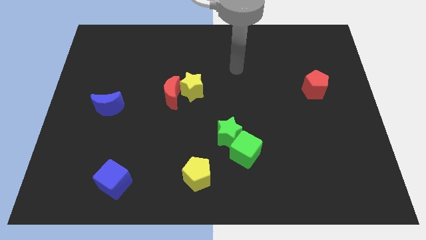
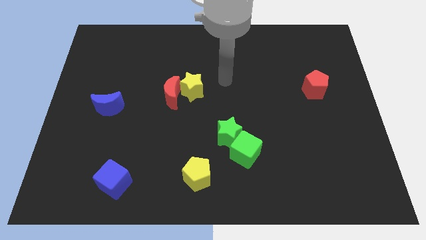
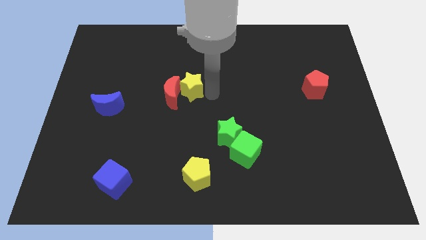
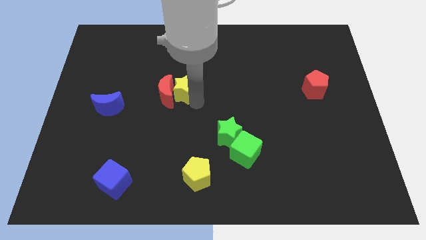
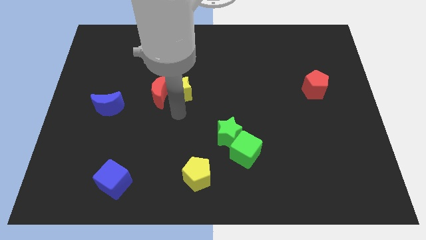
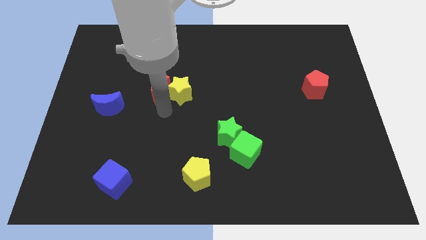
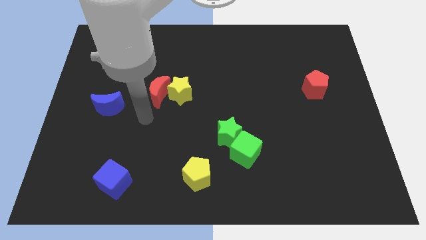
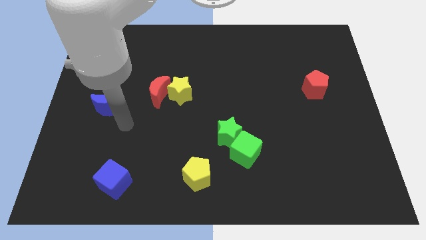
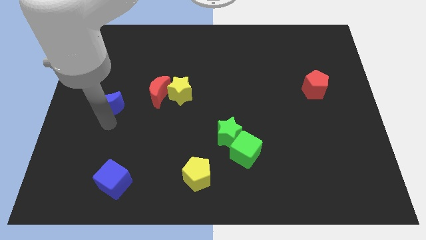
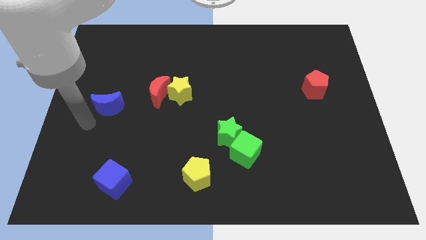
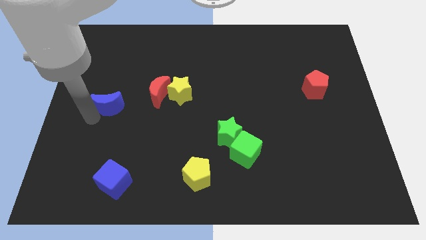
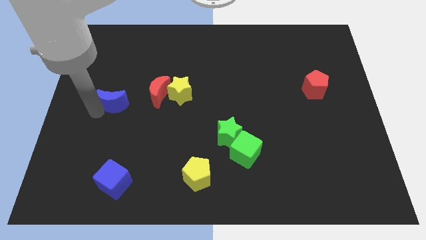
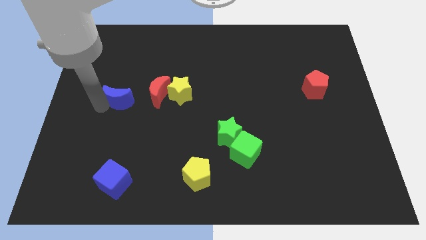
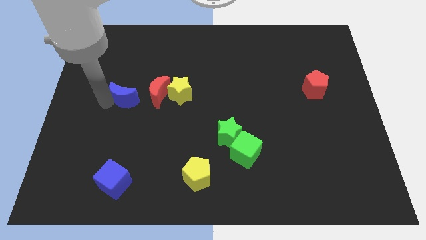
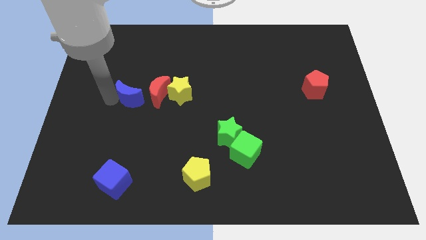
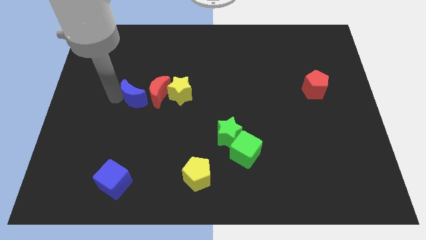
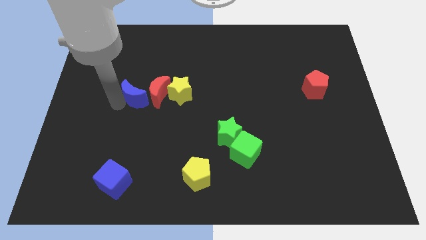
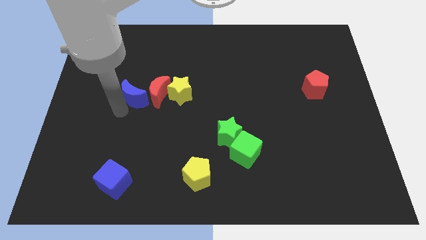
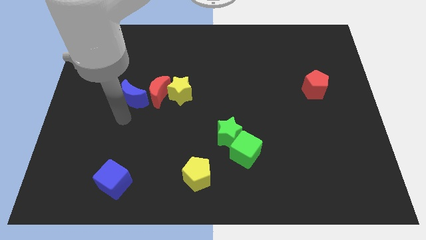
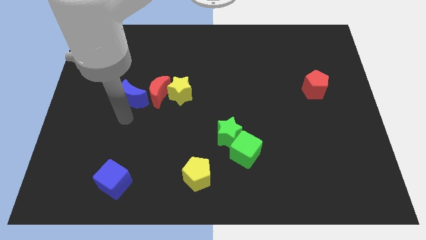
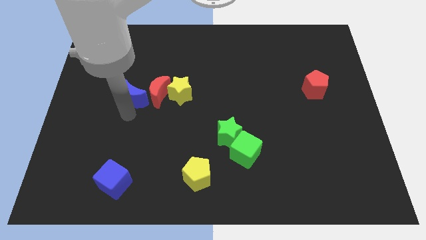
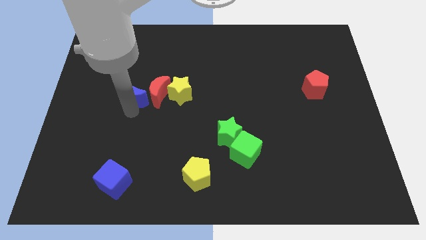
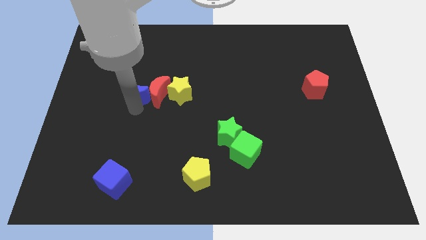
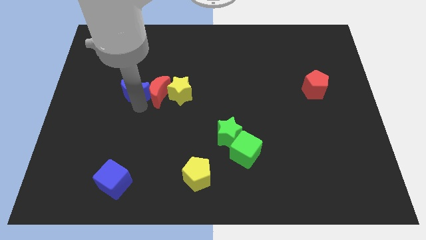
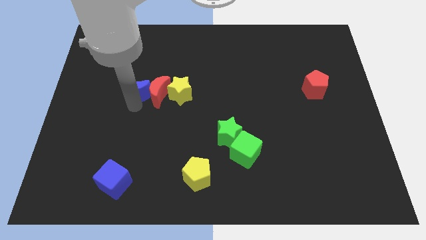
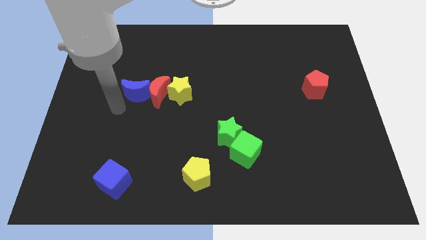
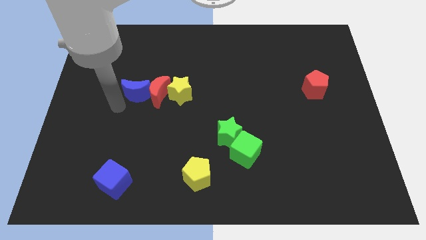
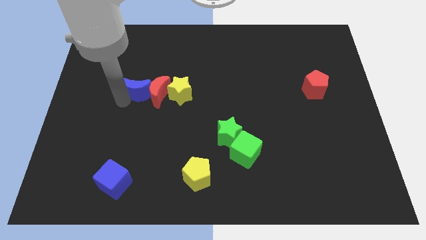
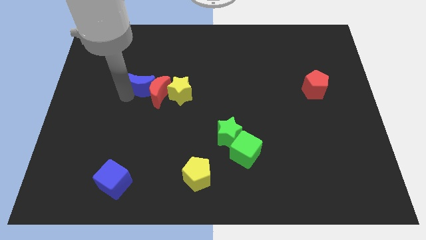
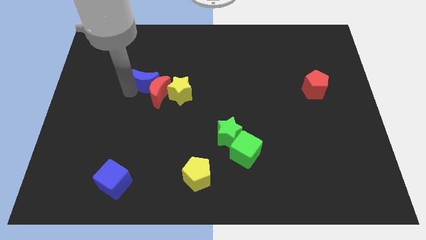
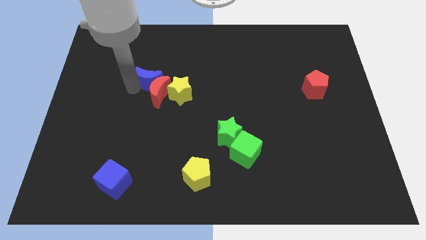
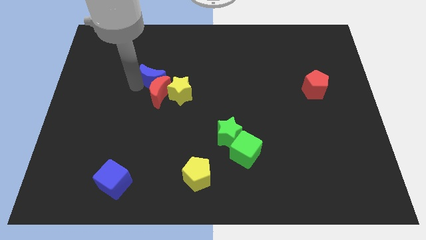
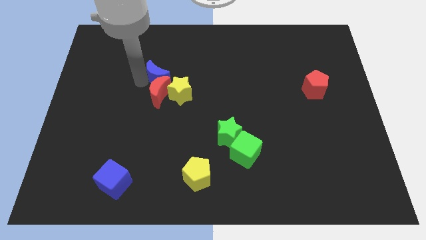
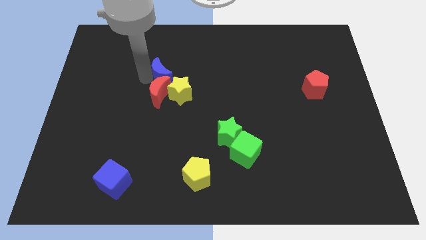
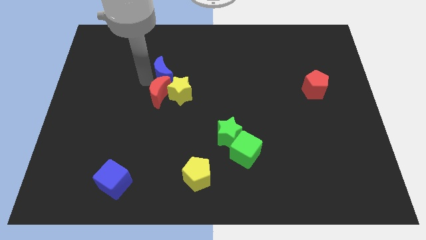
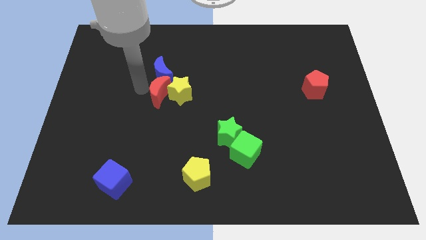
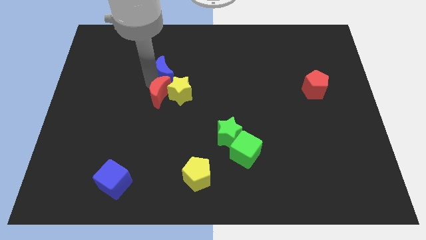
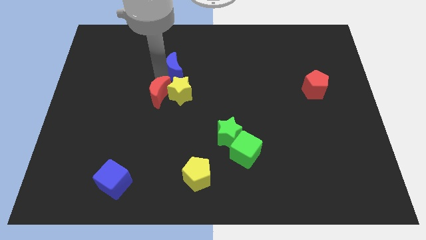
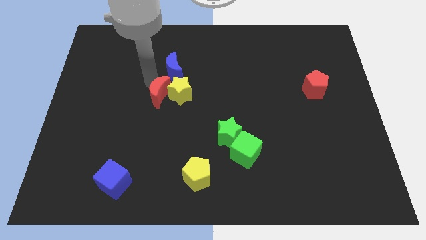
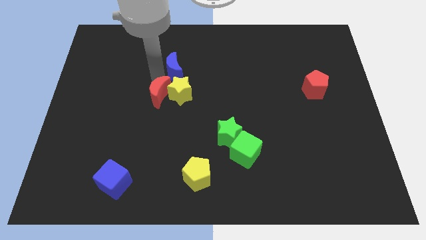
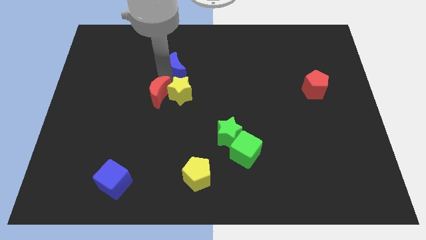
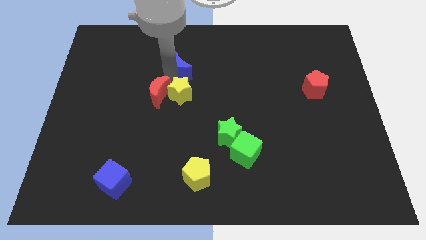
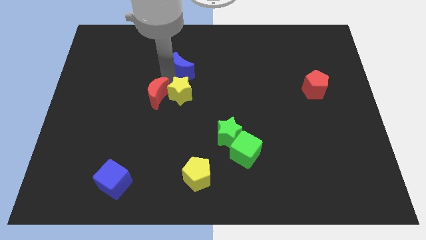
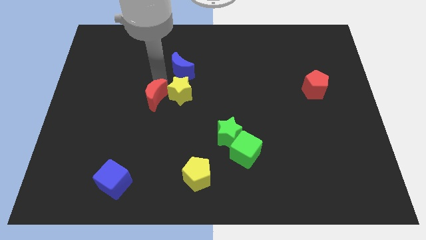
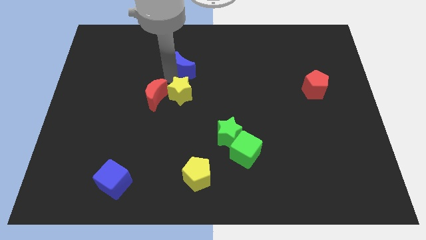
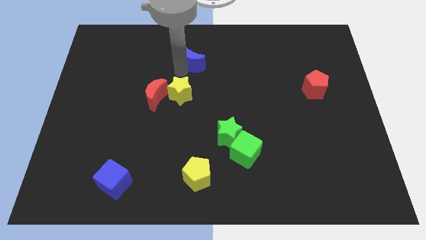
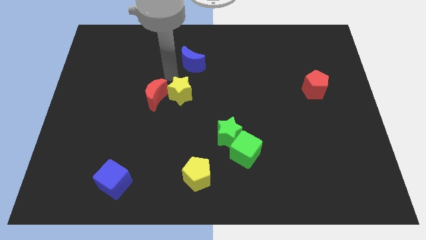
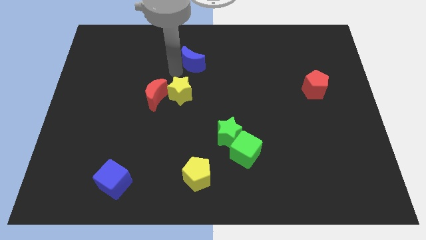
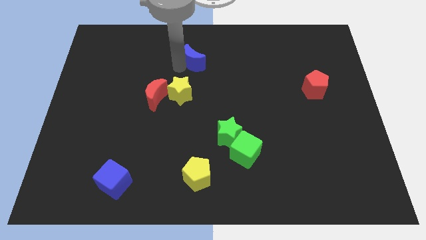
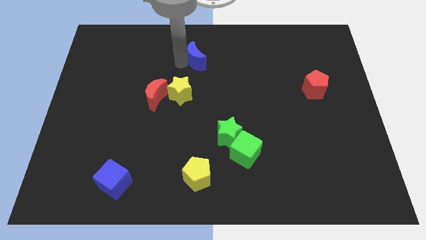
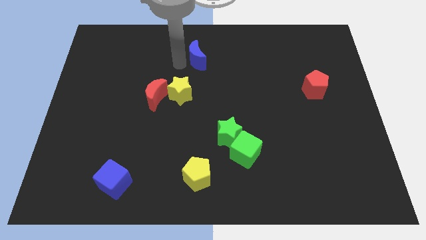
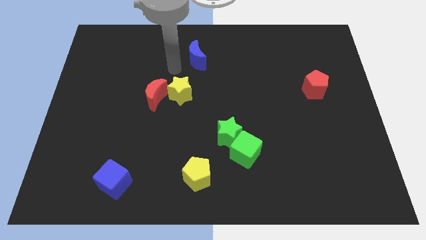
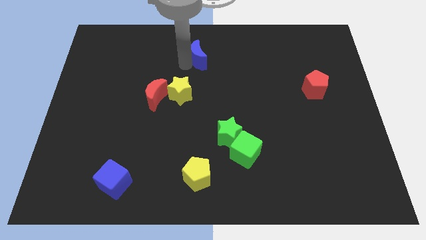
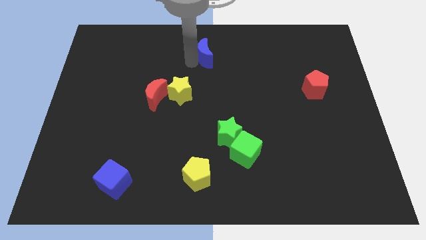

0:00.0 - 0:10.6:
push the blue moon to the top side

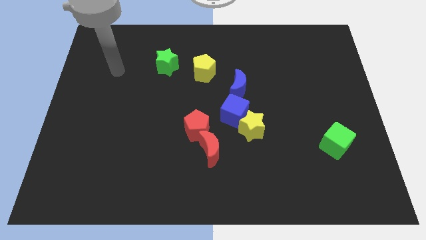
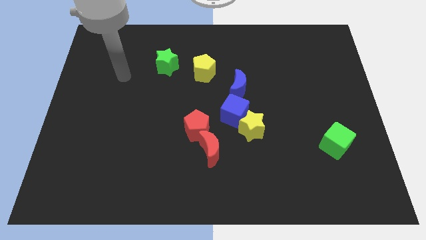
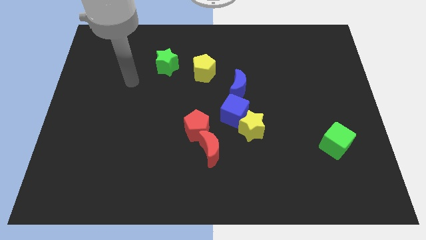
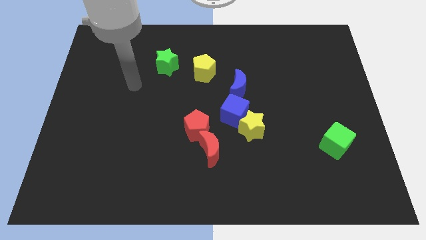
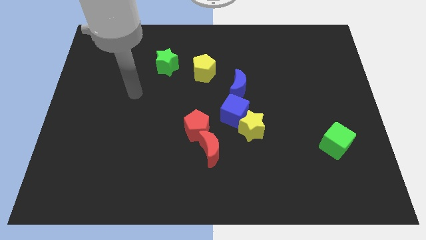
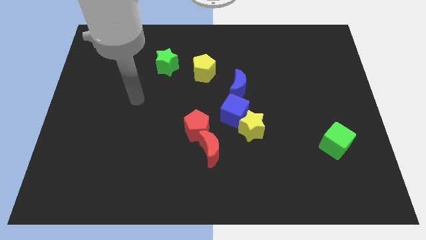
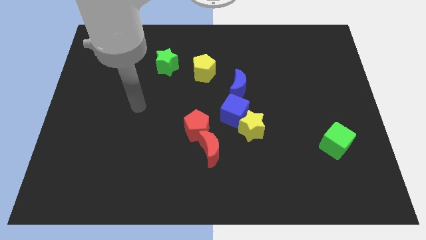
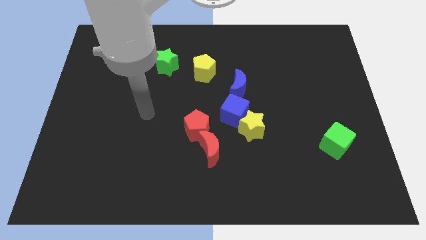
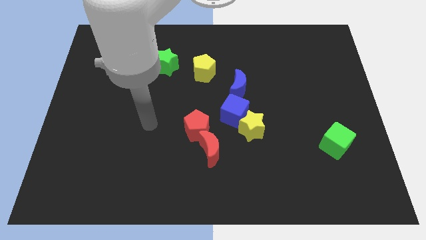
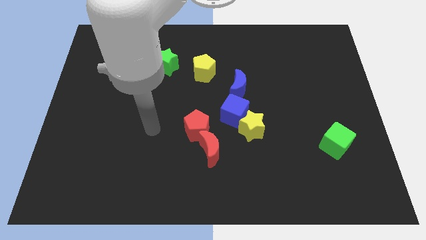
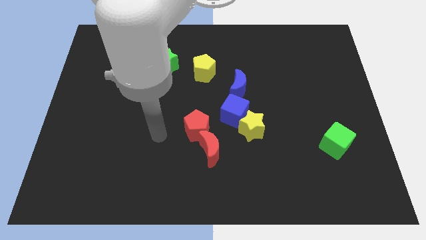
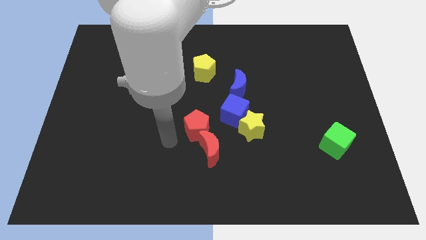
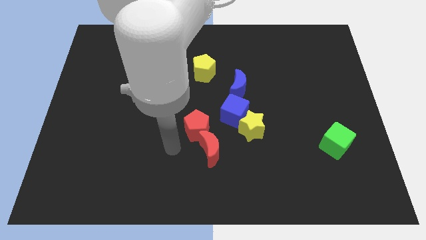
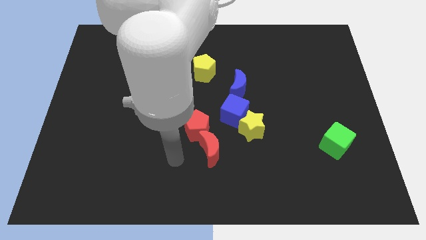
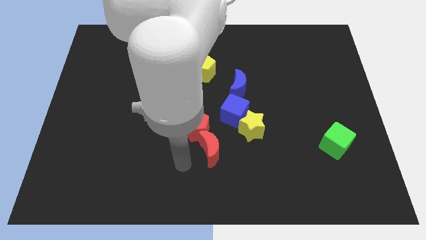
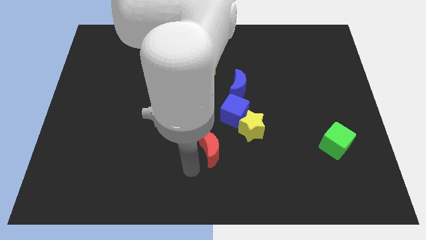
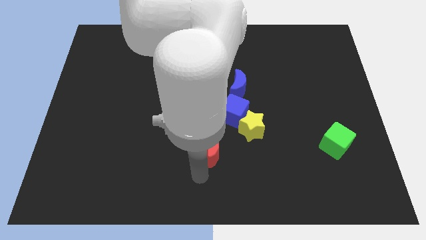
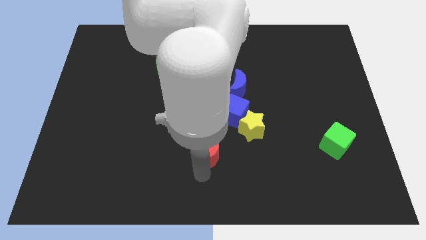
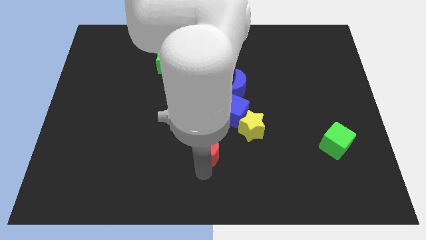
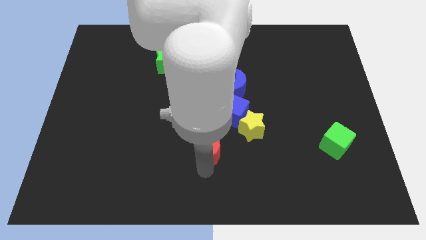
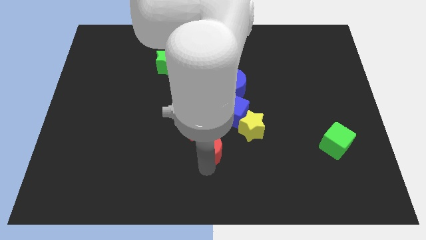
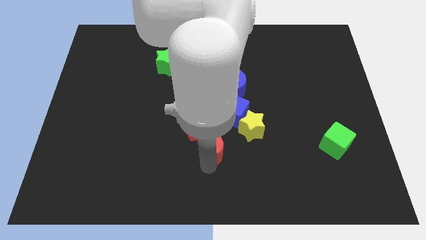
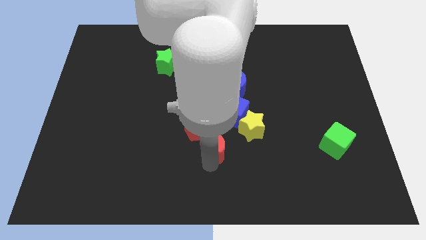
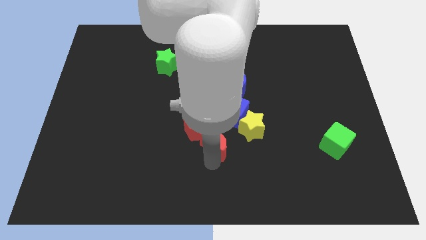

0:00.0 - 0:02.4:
move the red moon to the center of the board
